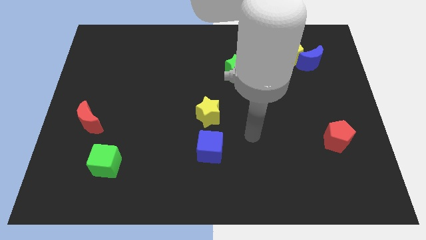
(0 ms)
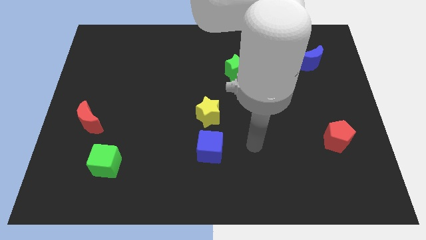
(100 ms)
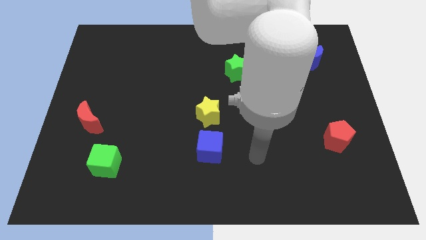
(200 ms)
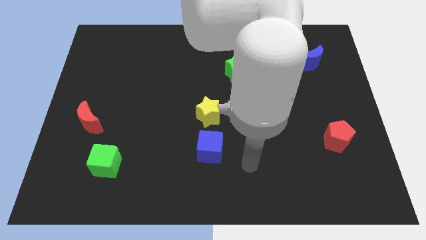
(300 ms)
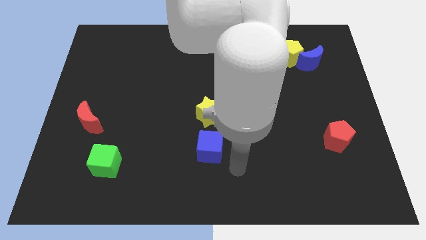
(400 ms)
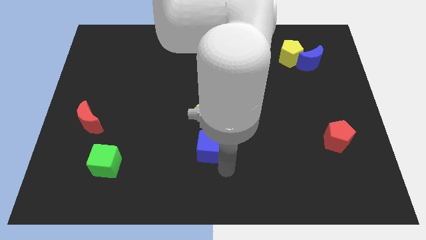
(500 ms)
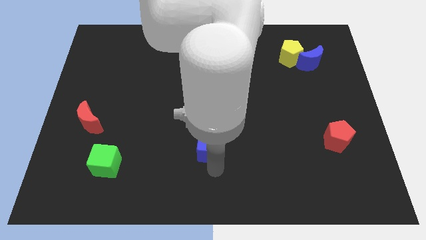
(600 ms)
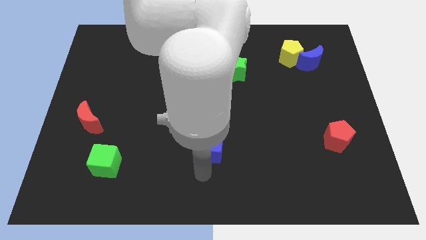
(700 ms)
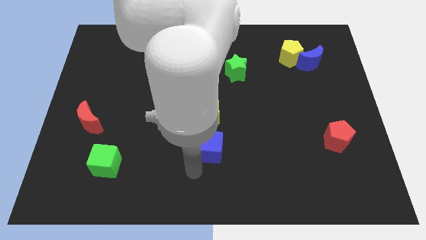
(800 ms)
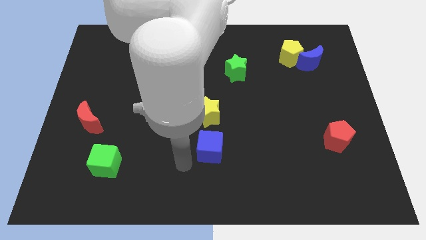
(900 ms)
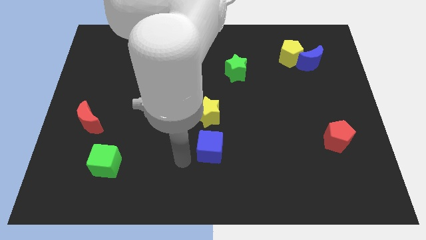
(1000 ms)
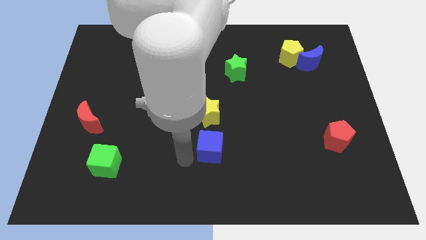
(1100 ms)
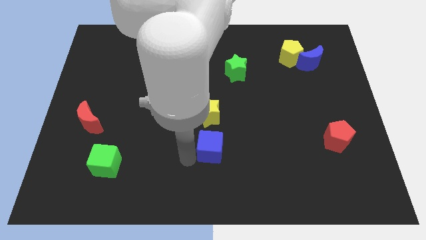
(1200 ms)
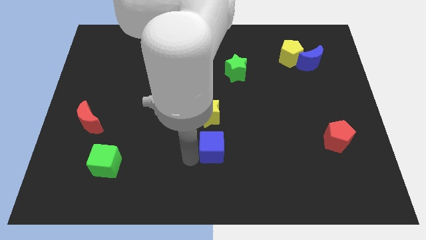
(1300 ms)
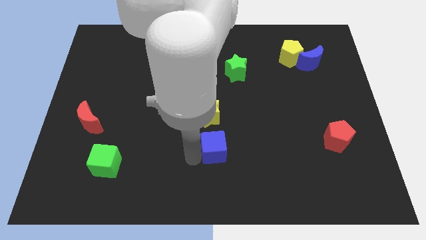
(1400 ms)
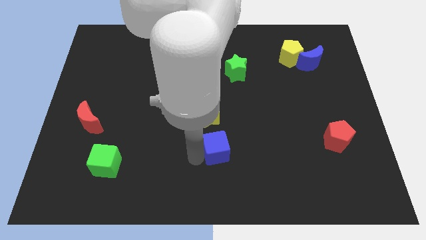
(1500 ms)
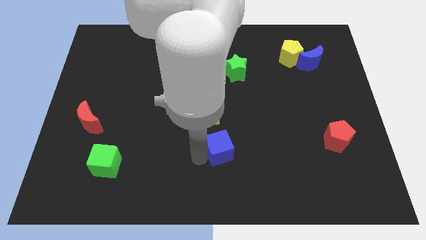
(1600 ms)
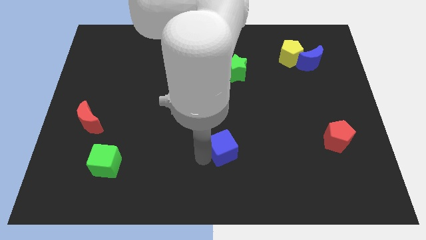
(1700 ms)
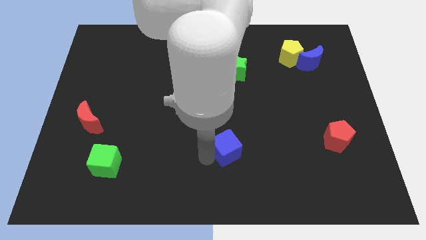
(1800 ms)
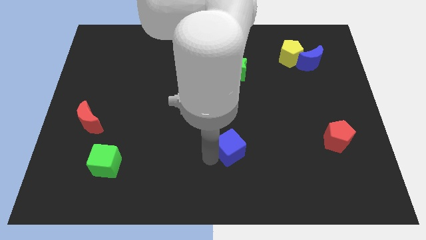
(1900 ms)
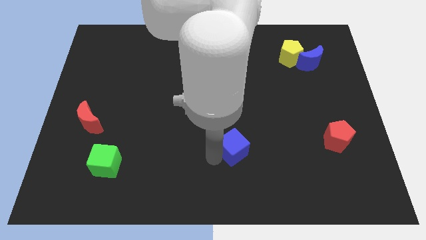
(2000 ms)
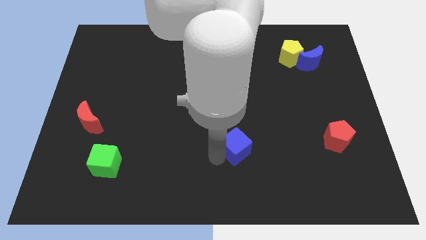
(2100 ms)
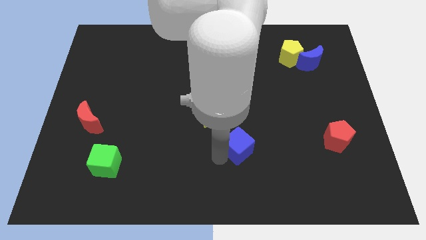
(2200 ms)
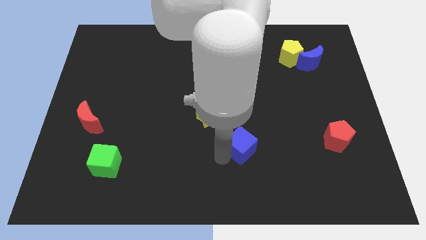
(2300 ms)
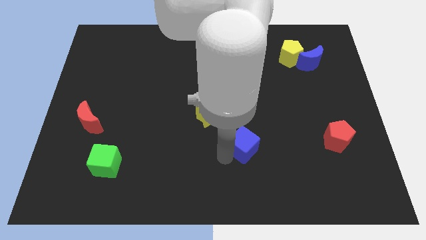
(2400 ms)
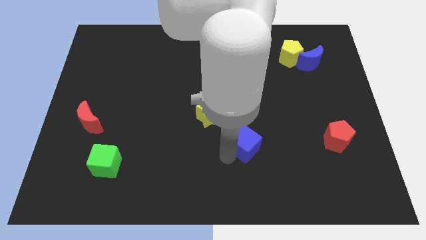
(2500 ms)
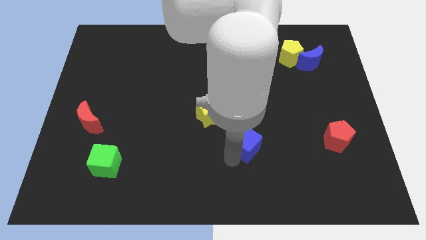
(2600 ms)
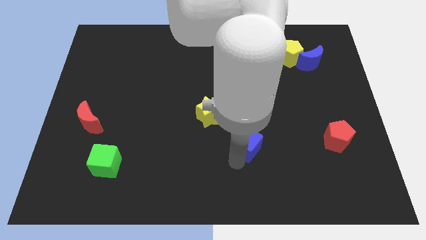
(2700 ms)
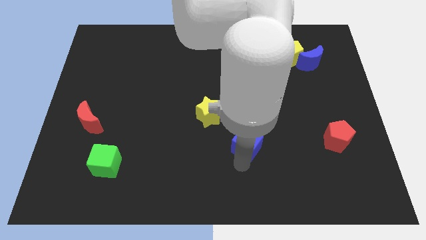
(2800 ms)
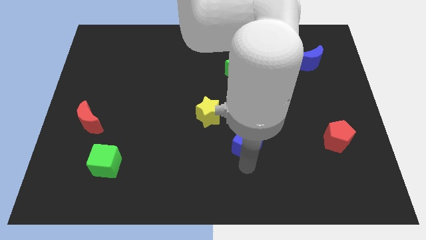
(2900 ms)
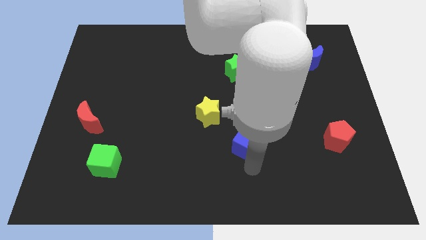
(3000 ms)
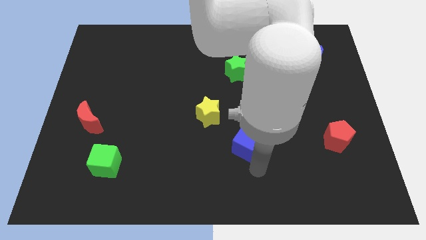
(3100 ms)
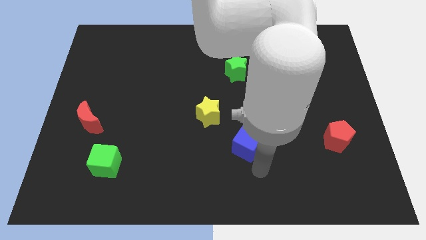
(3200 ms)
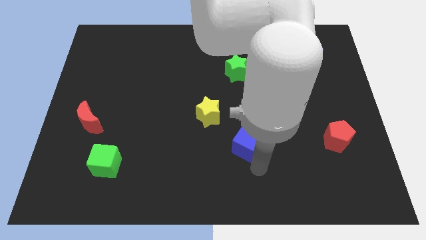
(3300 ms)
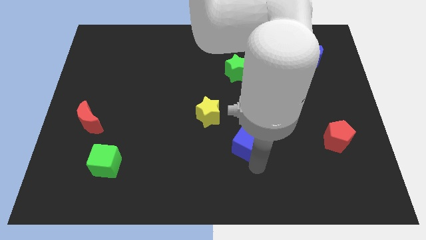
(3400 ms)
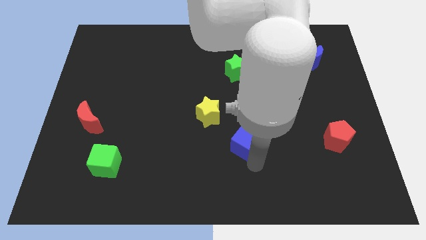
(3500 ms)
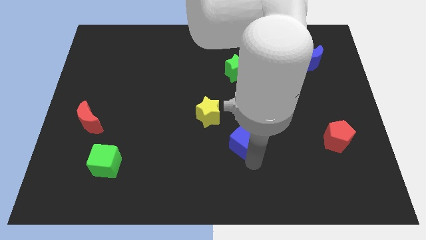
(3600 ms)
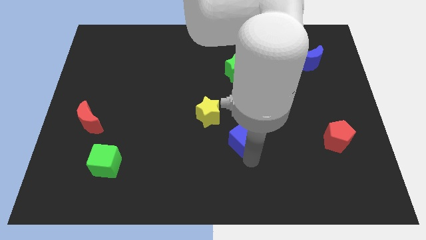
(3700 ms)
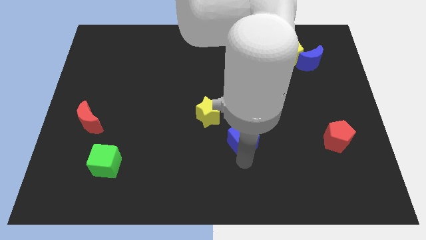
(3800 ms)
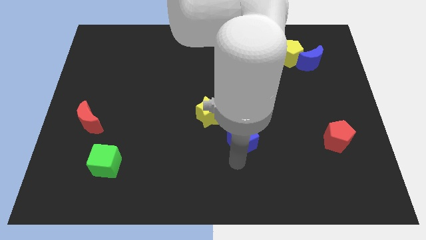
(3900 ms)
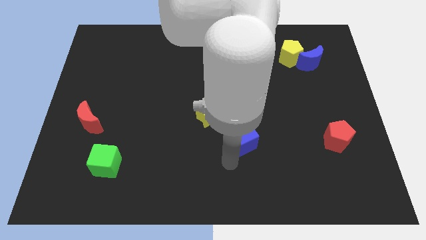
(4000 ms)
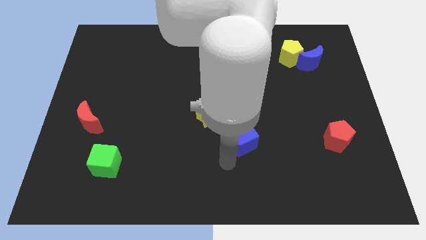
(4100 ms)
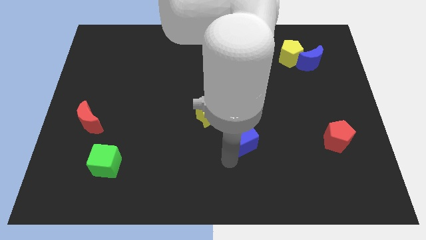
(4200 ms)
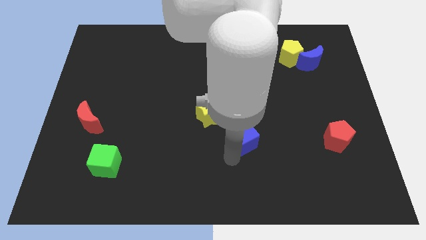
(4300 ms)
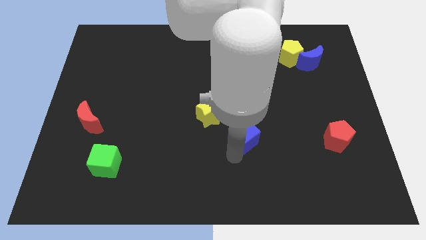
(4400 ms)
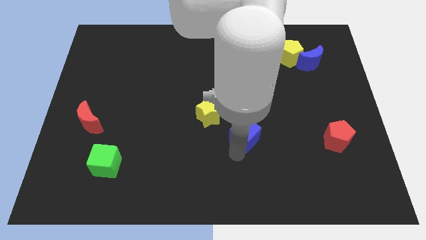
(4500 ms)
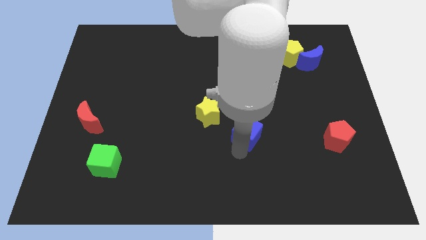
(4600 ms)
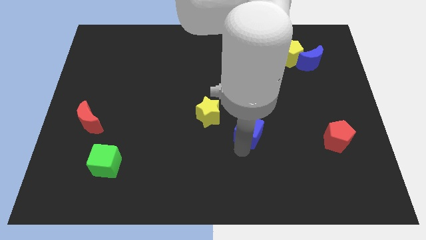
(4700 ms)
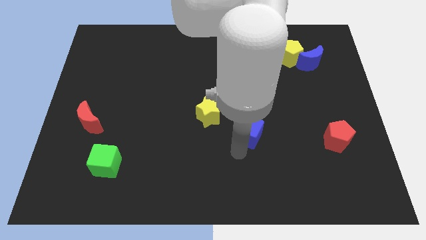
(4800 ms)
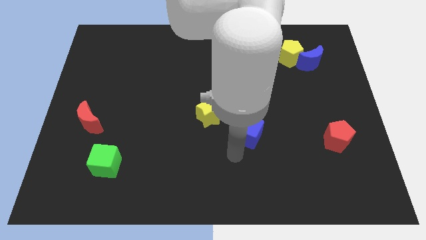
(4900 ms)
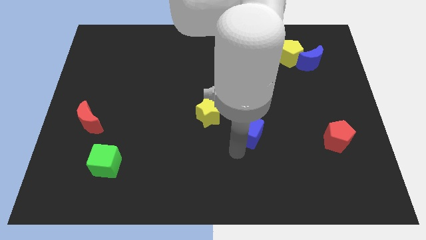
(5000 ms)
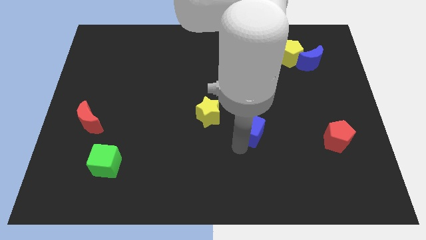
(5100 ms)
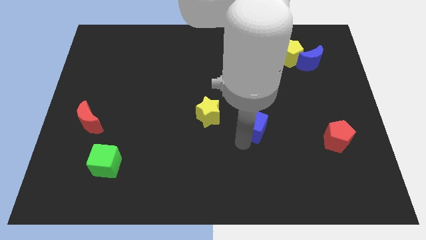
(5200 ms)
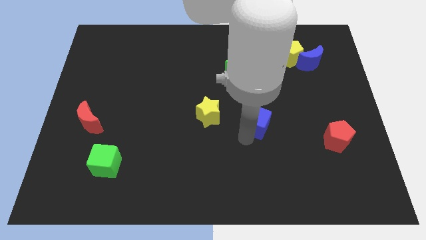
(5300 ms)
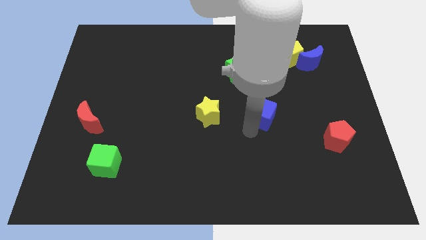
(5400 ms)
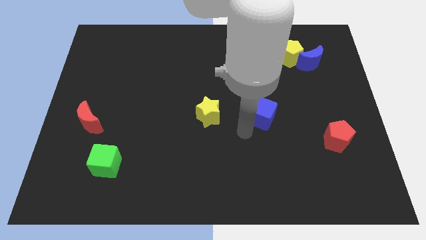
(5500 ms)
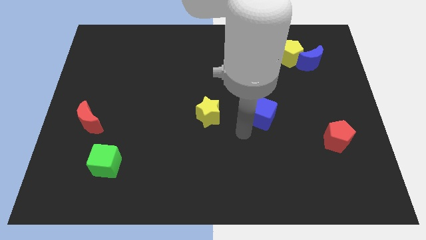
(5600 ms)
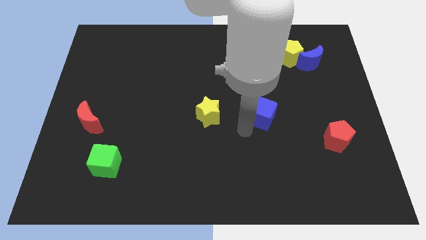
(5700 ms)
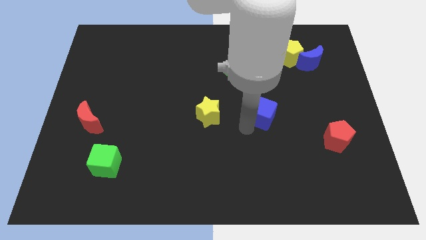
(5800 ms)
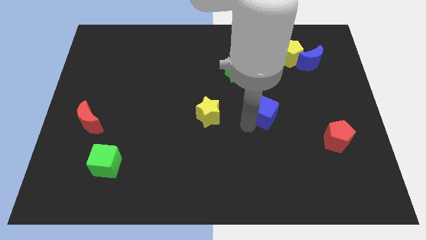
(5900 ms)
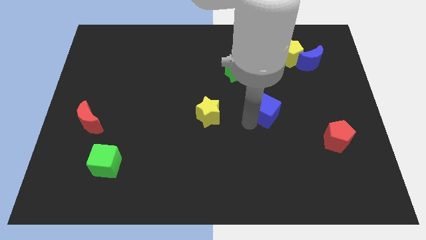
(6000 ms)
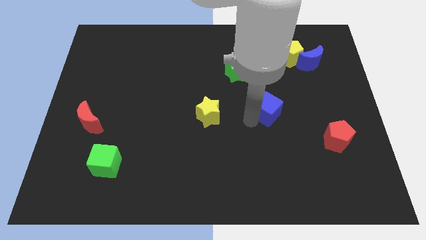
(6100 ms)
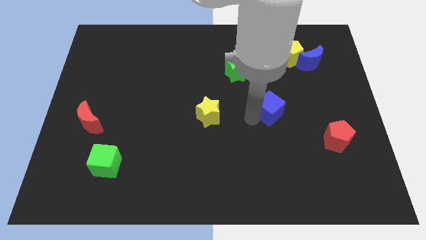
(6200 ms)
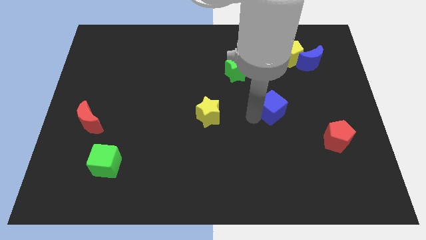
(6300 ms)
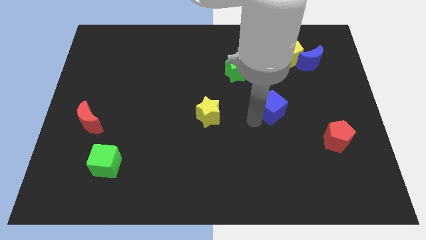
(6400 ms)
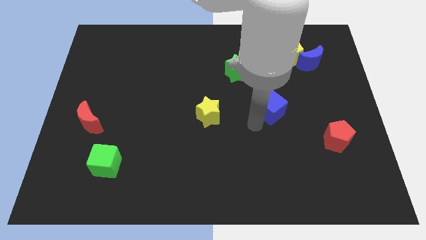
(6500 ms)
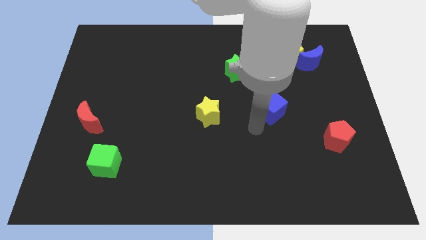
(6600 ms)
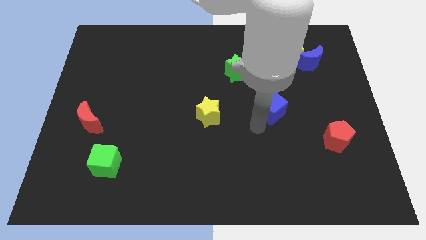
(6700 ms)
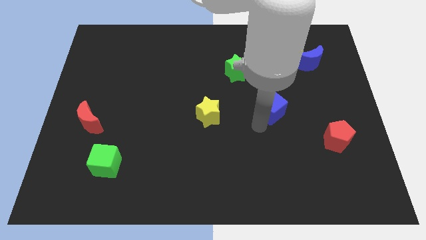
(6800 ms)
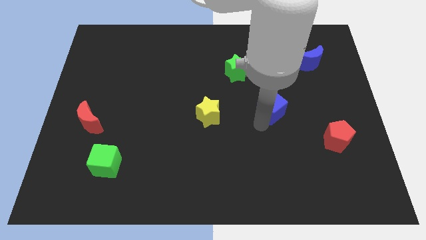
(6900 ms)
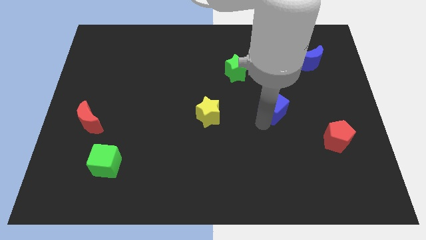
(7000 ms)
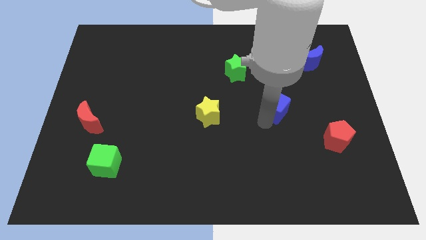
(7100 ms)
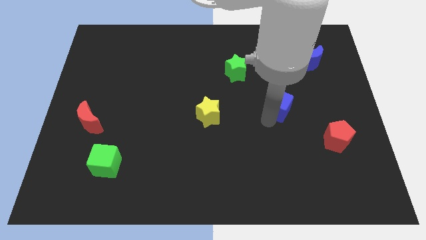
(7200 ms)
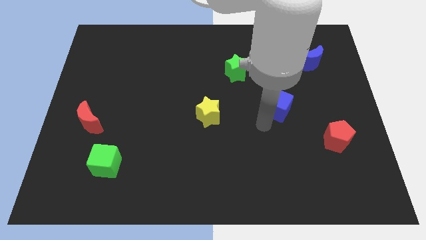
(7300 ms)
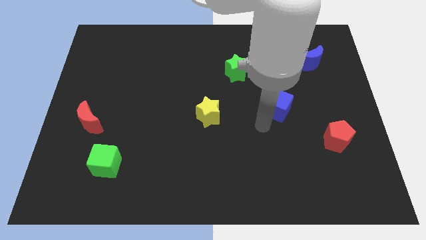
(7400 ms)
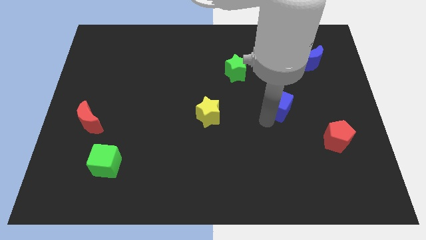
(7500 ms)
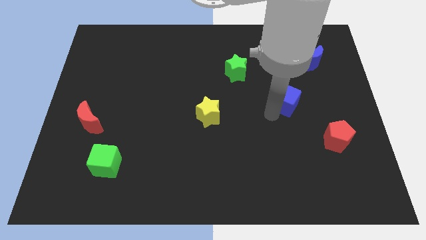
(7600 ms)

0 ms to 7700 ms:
slide the blue cube to the bottom side of the yellow pentagon
